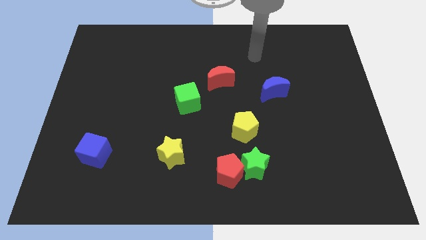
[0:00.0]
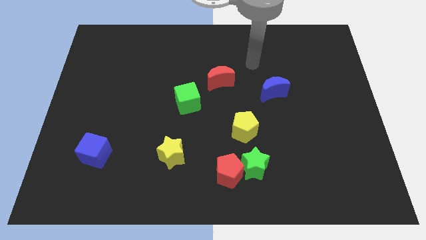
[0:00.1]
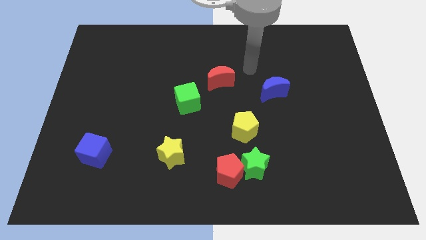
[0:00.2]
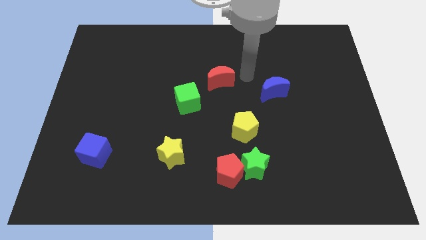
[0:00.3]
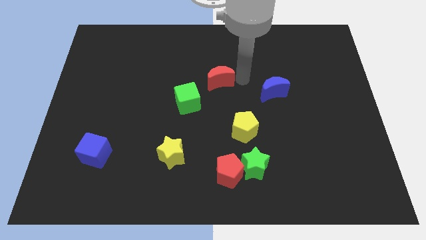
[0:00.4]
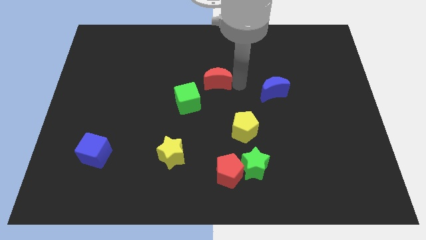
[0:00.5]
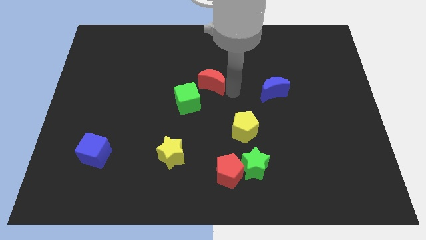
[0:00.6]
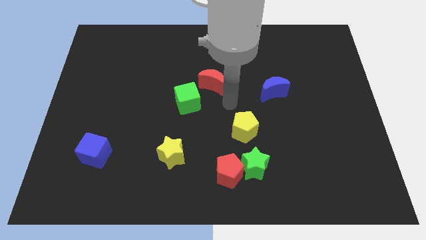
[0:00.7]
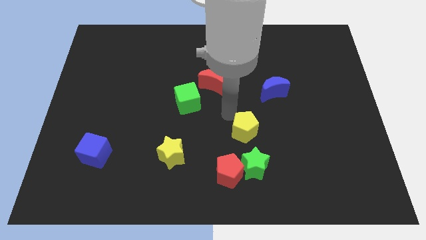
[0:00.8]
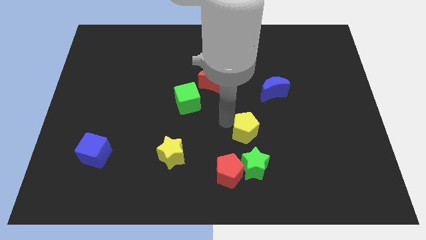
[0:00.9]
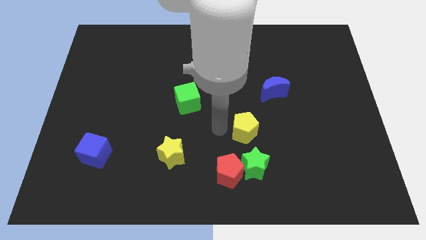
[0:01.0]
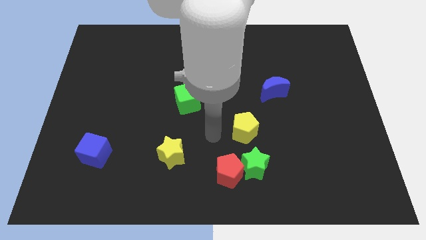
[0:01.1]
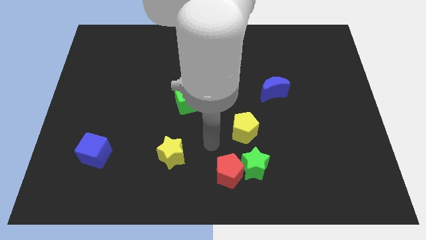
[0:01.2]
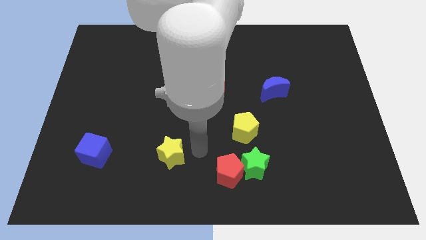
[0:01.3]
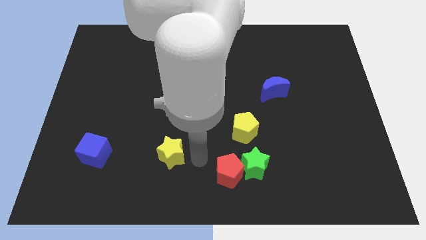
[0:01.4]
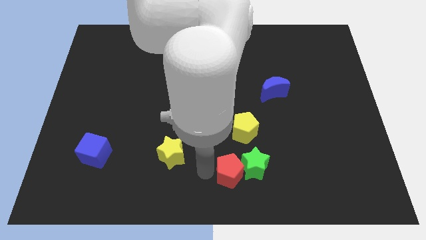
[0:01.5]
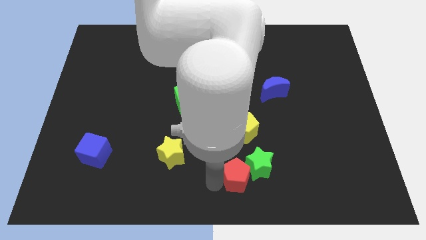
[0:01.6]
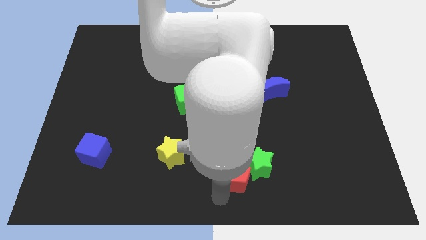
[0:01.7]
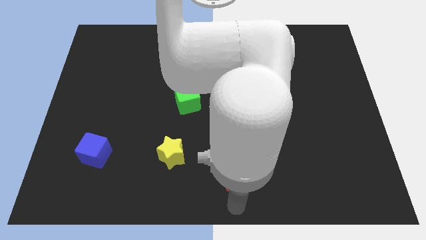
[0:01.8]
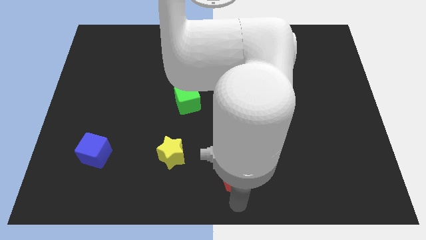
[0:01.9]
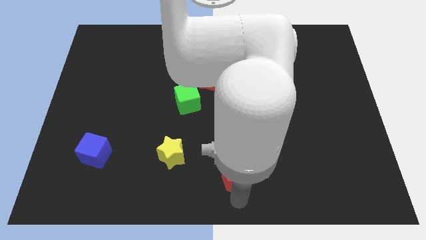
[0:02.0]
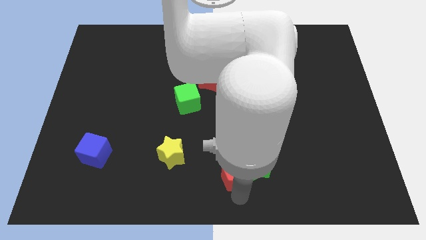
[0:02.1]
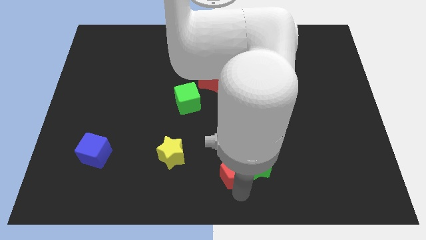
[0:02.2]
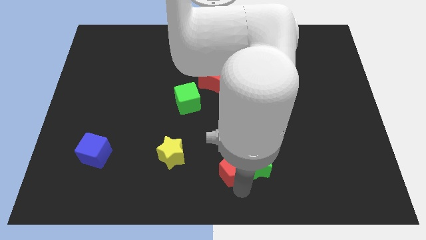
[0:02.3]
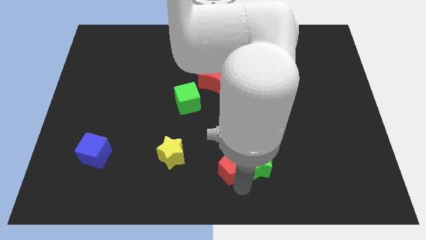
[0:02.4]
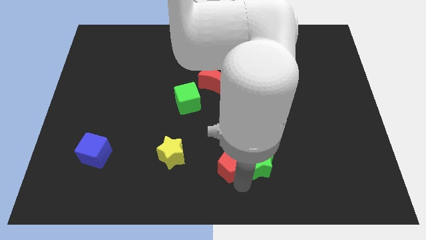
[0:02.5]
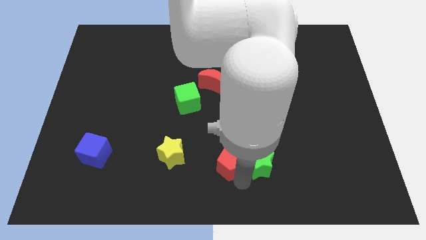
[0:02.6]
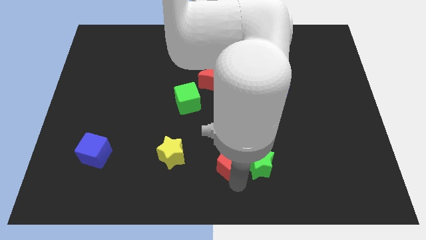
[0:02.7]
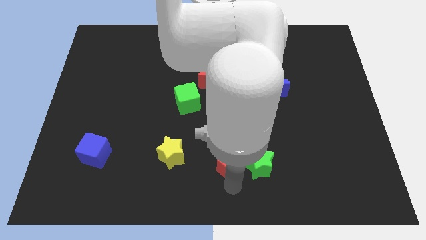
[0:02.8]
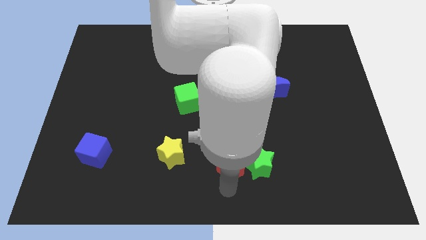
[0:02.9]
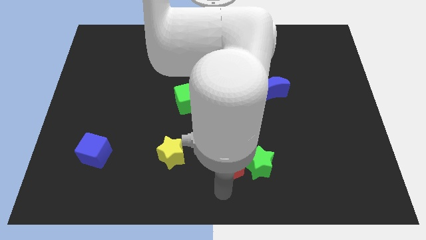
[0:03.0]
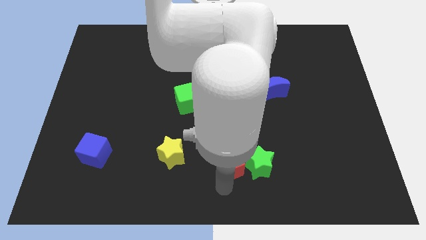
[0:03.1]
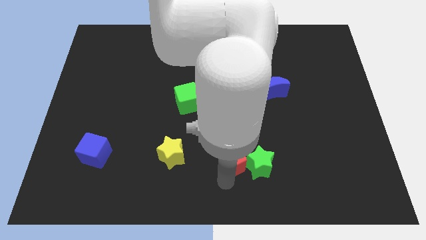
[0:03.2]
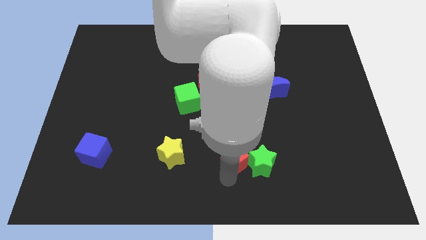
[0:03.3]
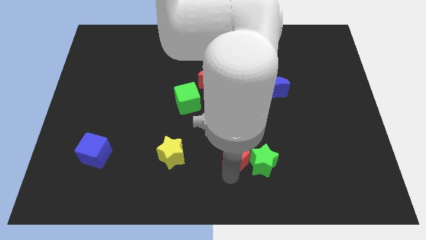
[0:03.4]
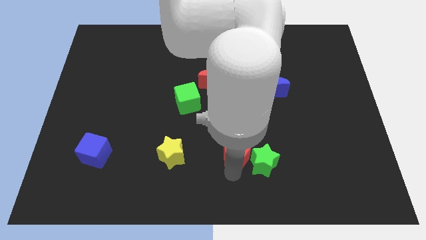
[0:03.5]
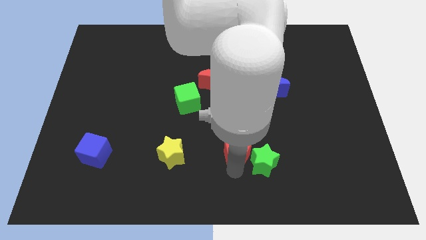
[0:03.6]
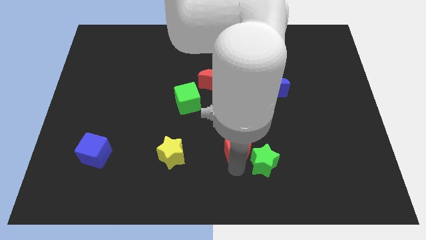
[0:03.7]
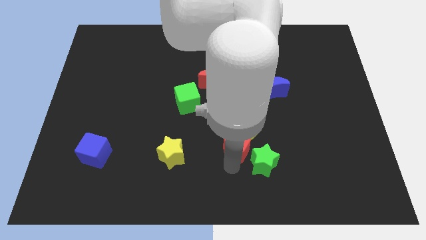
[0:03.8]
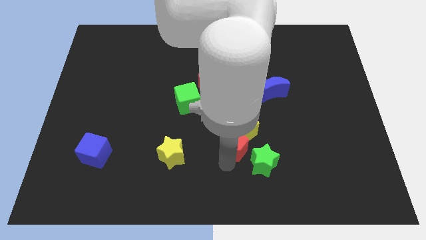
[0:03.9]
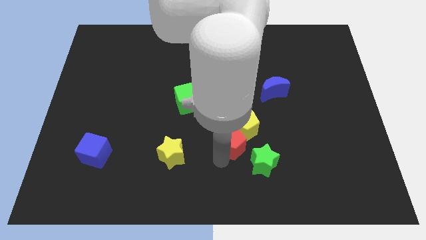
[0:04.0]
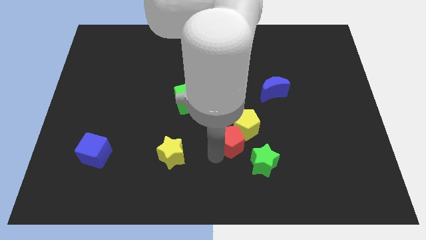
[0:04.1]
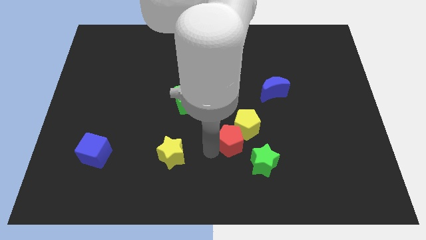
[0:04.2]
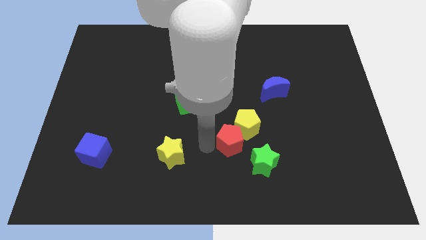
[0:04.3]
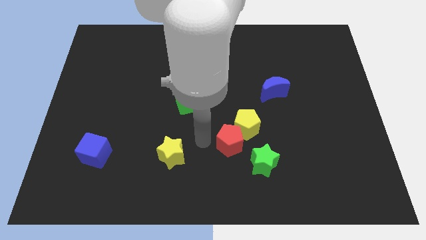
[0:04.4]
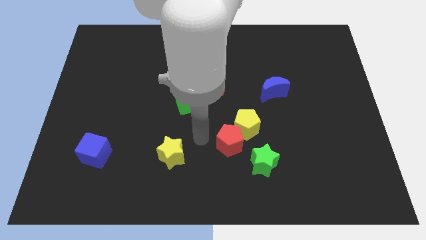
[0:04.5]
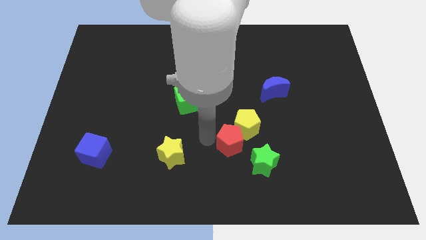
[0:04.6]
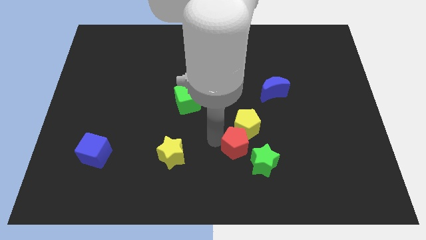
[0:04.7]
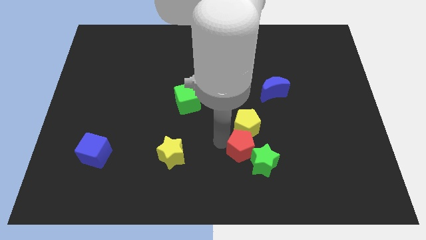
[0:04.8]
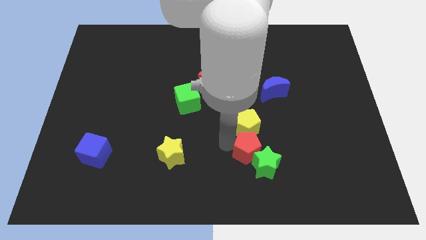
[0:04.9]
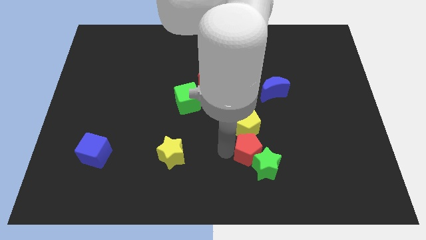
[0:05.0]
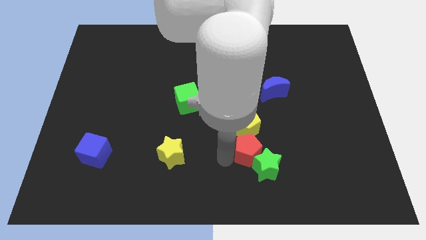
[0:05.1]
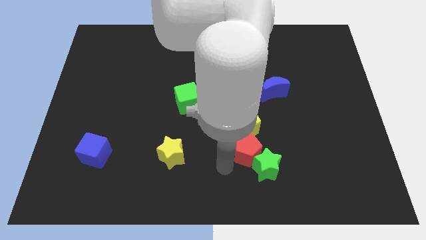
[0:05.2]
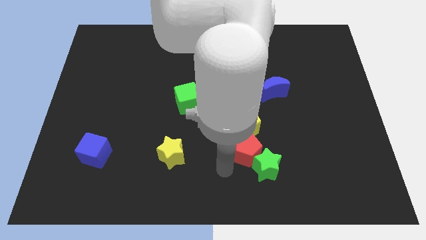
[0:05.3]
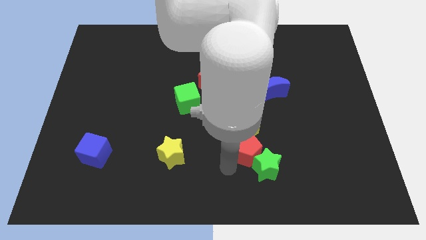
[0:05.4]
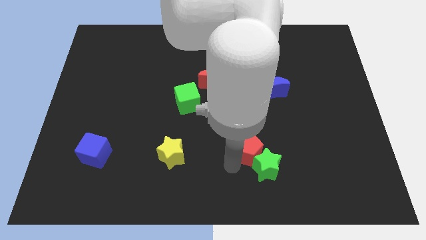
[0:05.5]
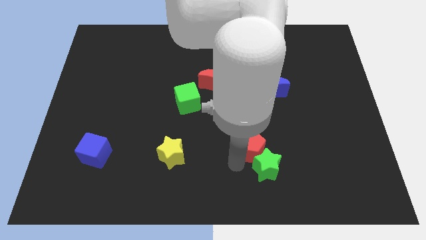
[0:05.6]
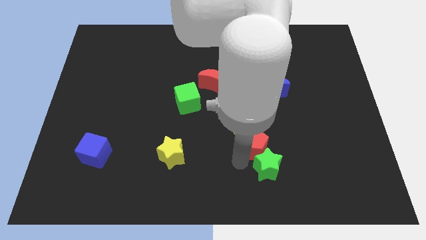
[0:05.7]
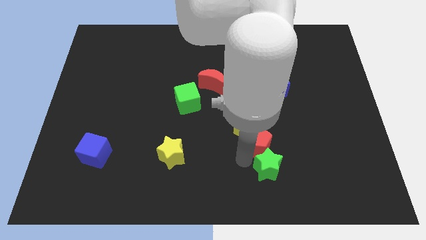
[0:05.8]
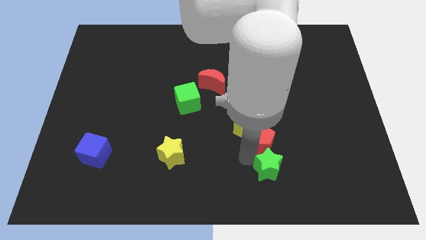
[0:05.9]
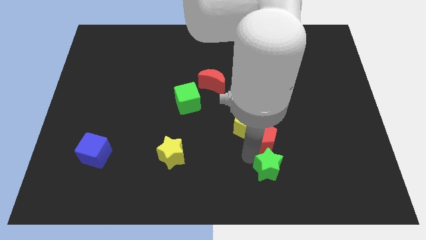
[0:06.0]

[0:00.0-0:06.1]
move the red pentagon to the bottom of the blue moon

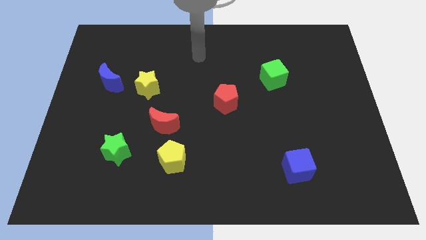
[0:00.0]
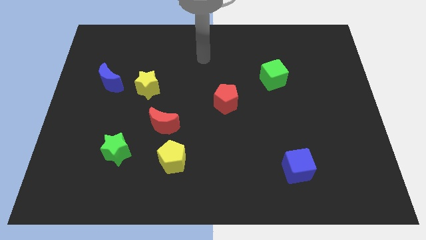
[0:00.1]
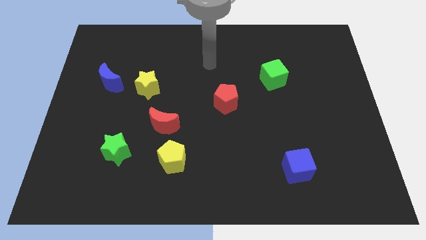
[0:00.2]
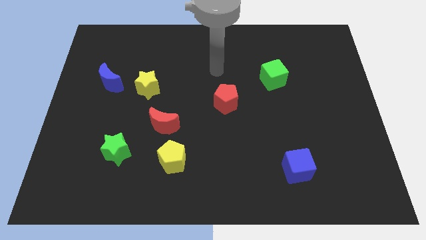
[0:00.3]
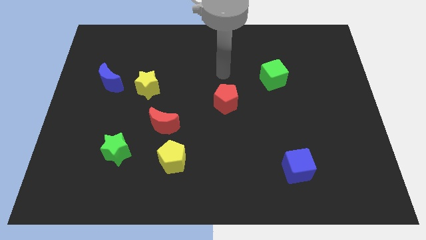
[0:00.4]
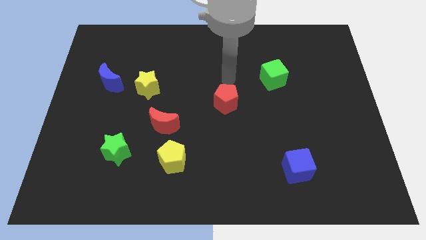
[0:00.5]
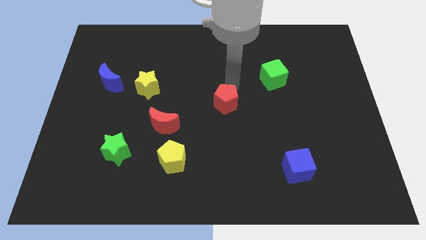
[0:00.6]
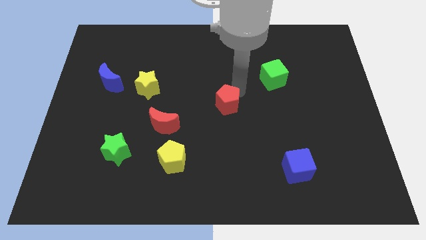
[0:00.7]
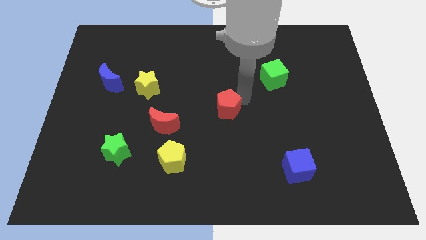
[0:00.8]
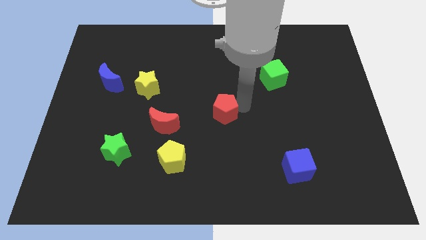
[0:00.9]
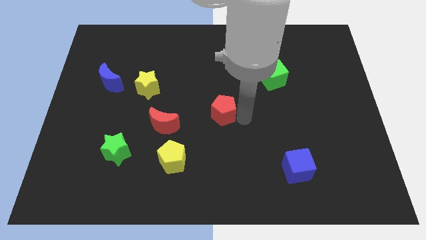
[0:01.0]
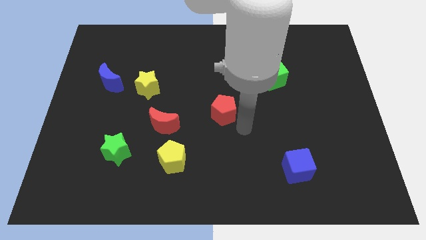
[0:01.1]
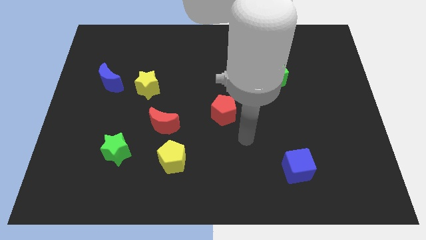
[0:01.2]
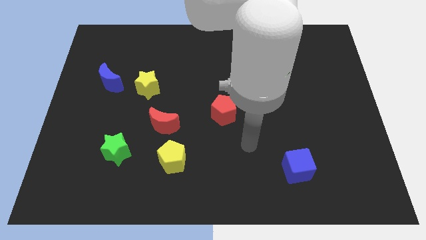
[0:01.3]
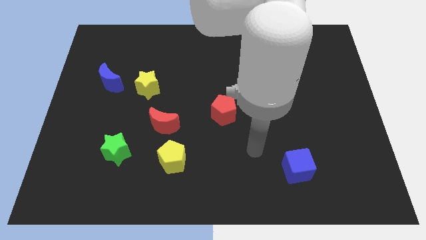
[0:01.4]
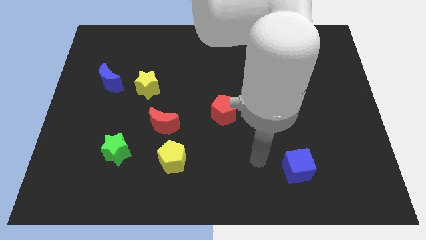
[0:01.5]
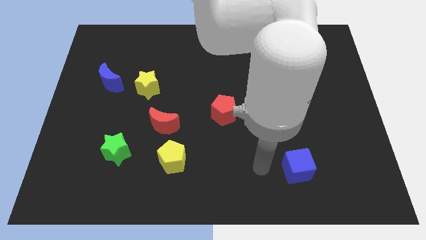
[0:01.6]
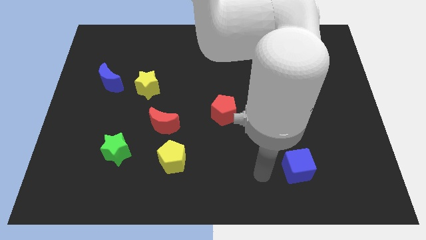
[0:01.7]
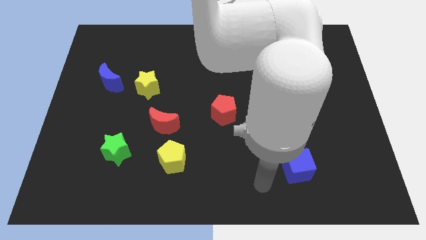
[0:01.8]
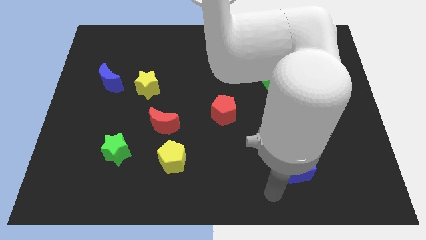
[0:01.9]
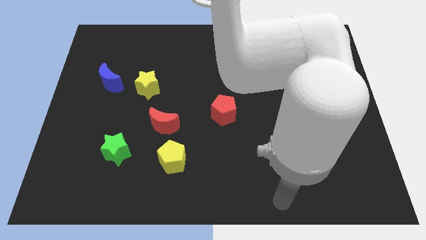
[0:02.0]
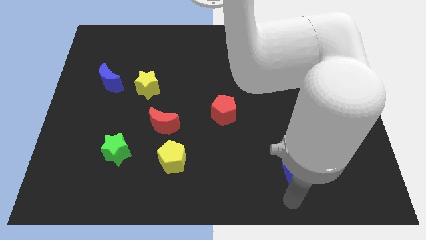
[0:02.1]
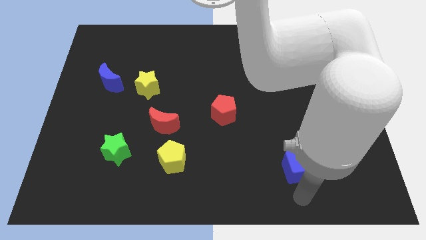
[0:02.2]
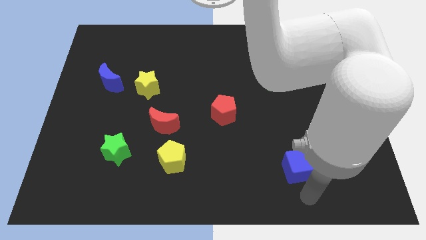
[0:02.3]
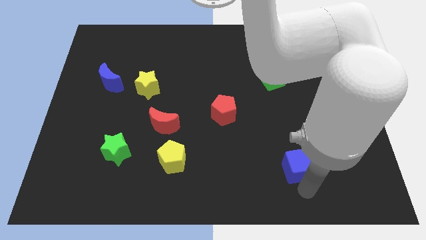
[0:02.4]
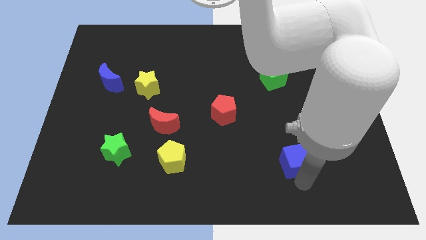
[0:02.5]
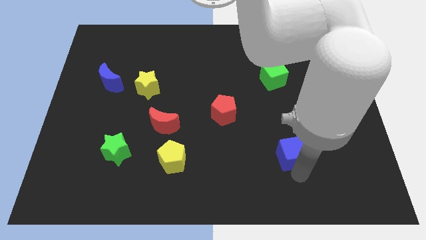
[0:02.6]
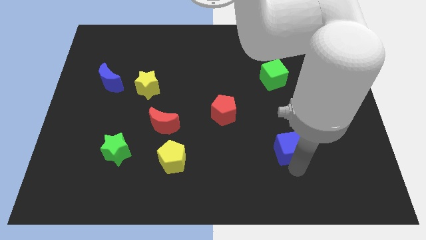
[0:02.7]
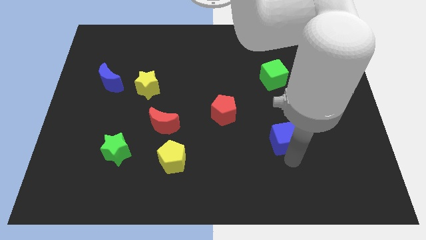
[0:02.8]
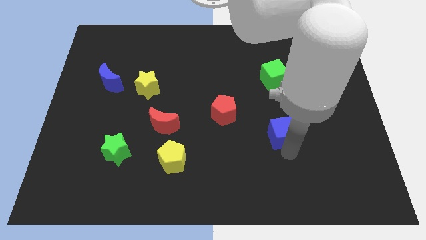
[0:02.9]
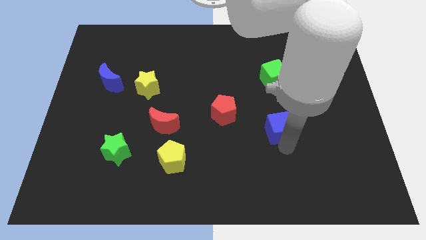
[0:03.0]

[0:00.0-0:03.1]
move the blue cube right of the red pentagon
